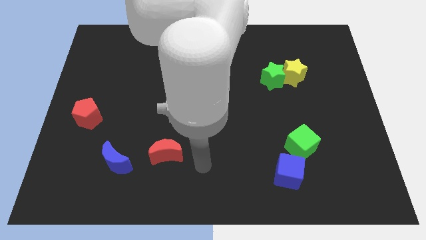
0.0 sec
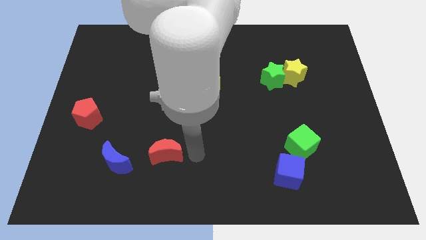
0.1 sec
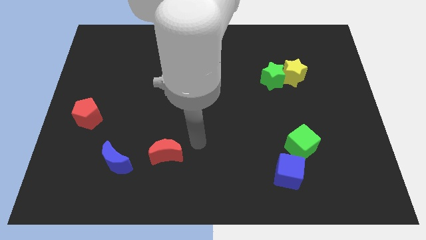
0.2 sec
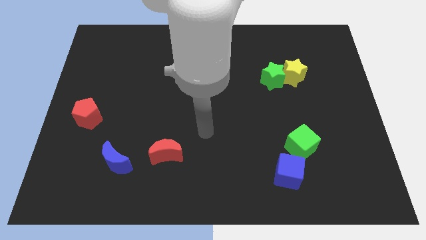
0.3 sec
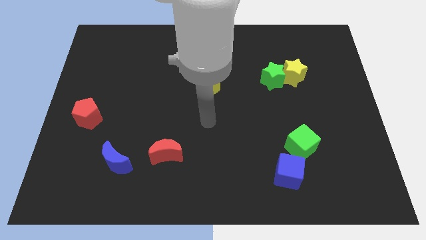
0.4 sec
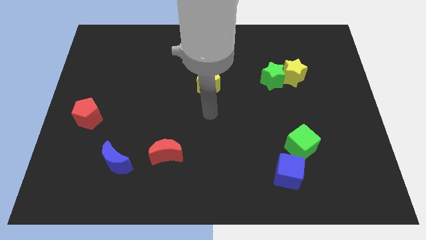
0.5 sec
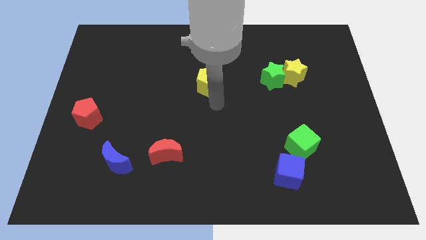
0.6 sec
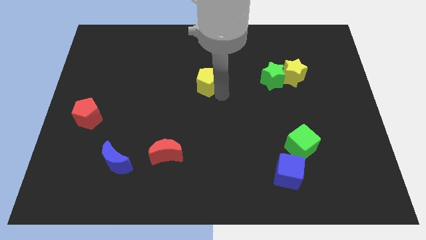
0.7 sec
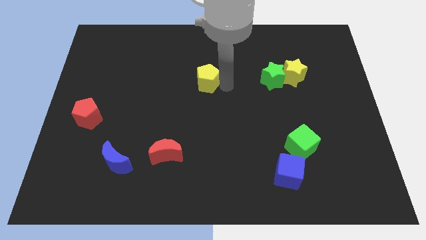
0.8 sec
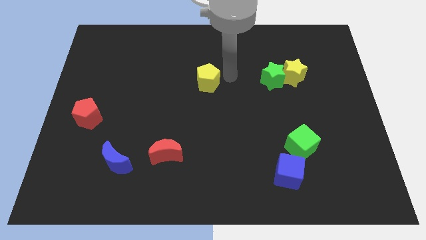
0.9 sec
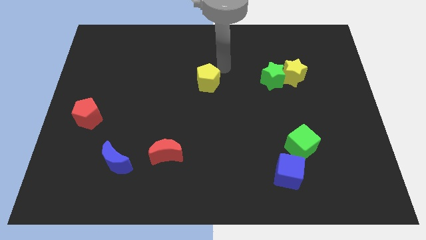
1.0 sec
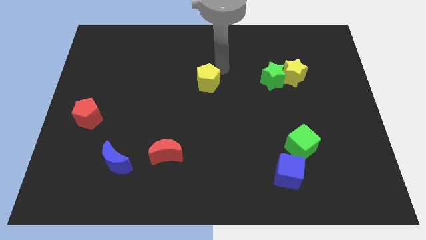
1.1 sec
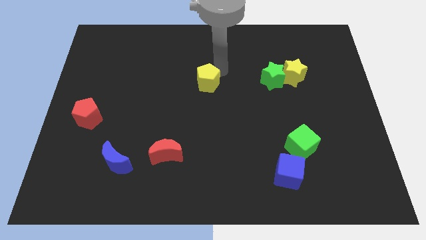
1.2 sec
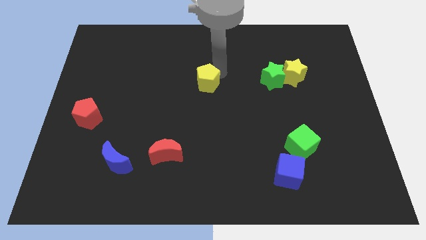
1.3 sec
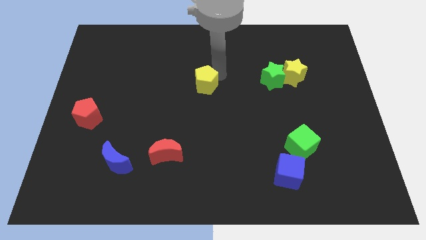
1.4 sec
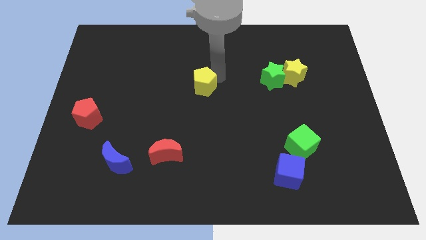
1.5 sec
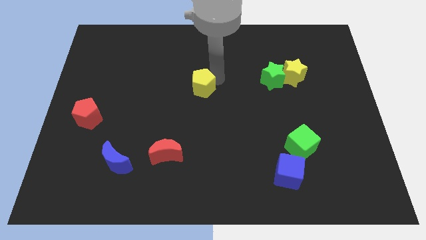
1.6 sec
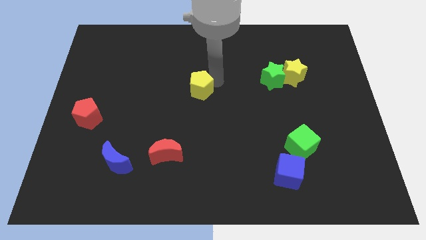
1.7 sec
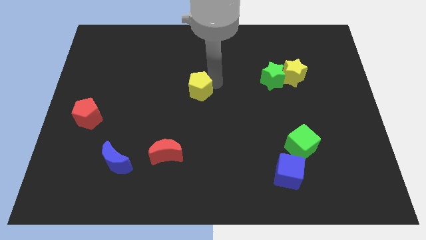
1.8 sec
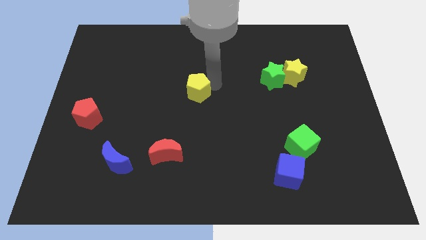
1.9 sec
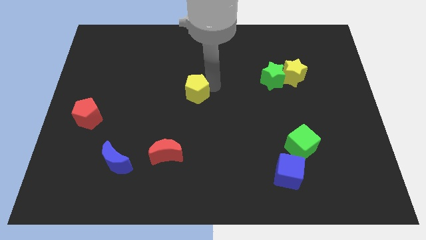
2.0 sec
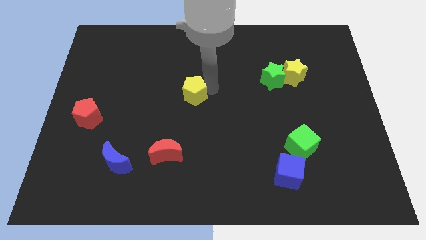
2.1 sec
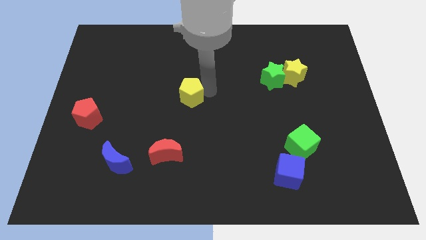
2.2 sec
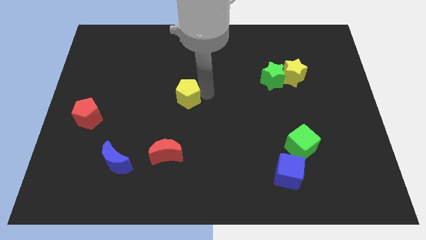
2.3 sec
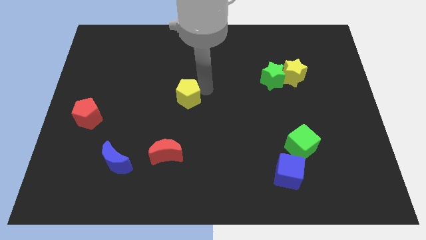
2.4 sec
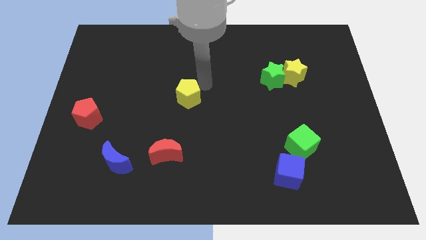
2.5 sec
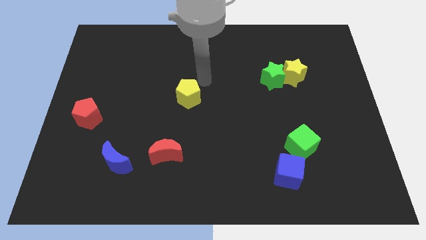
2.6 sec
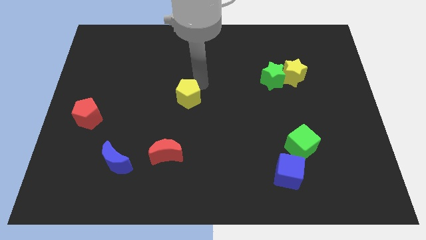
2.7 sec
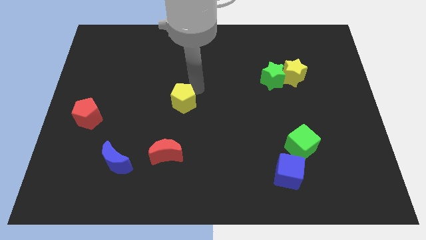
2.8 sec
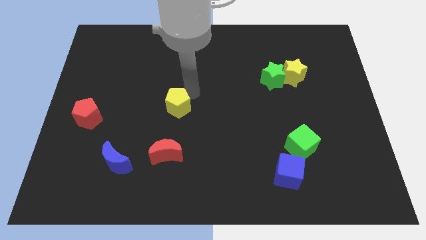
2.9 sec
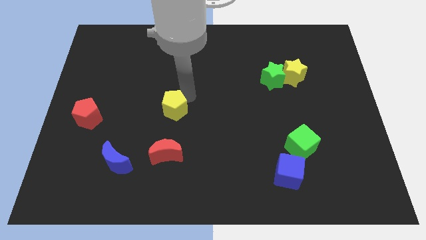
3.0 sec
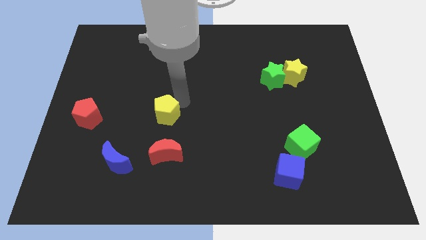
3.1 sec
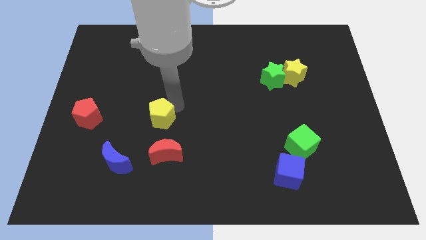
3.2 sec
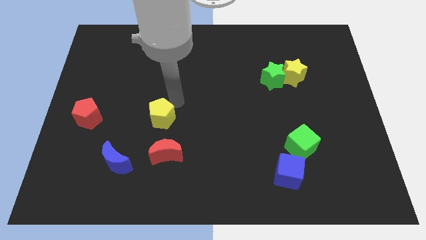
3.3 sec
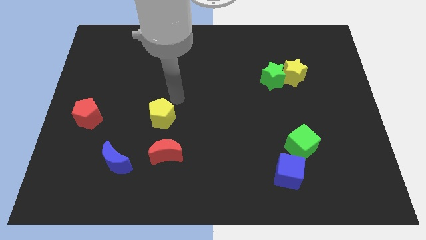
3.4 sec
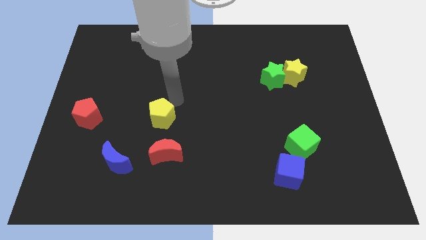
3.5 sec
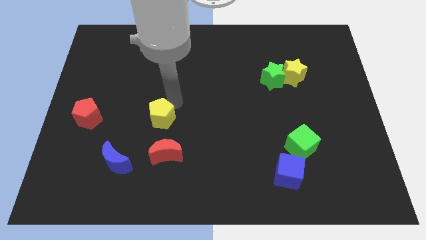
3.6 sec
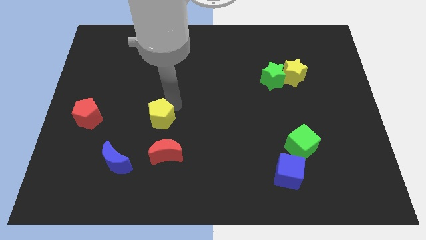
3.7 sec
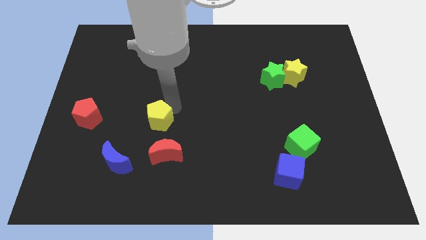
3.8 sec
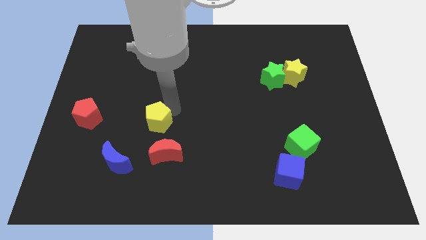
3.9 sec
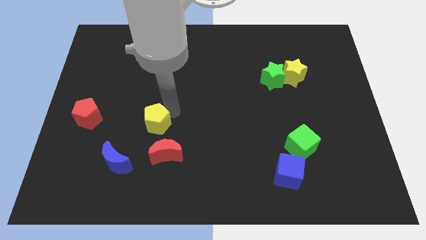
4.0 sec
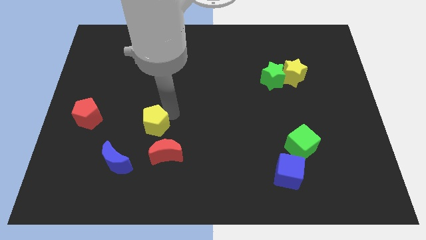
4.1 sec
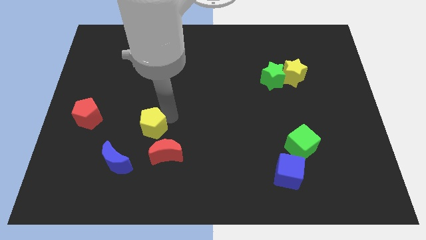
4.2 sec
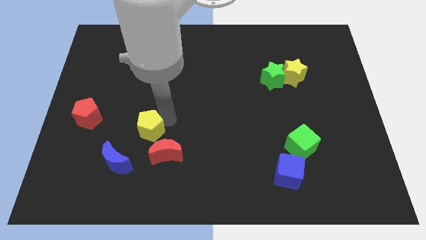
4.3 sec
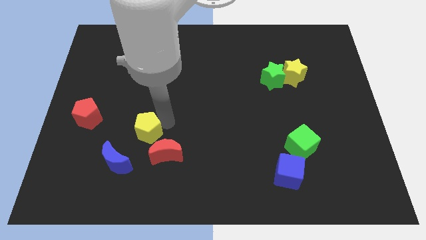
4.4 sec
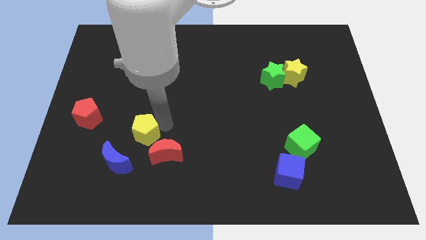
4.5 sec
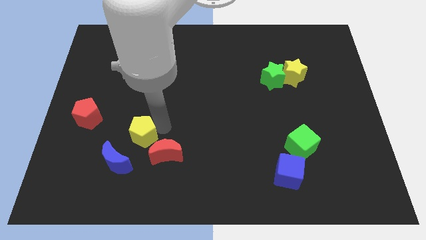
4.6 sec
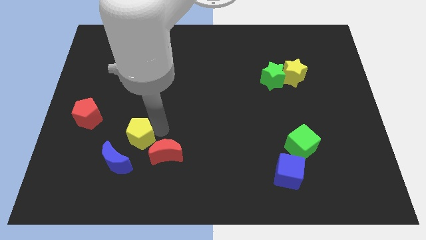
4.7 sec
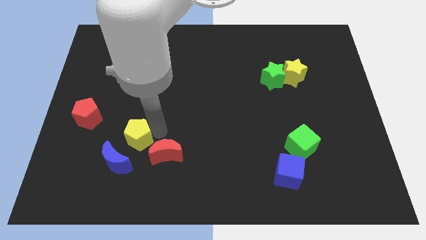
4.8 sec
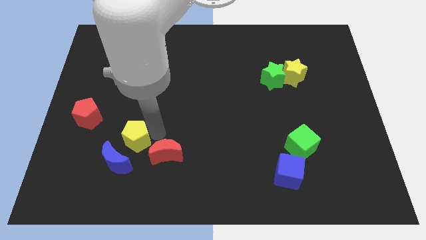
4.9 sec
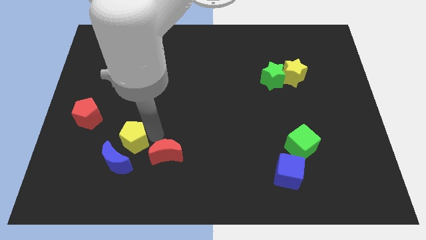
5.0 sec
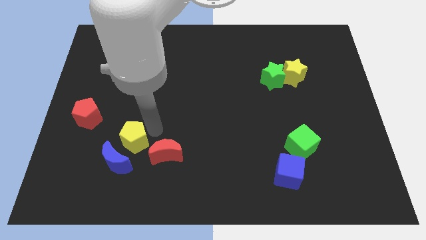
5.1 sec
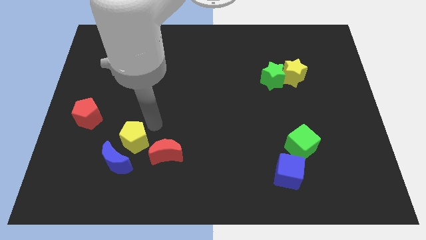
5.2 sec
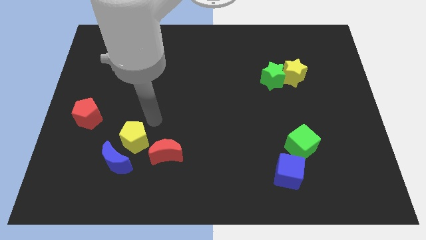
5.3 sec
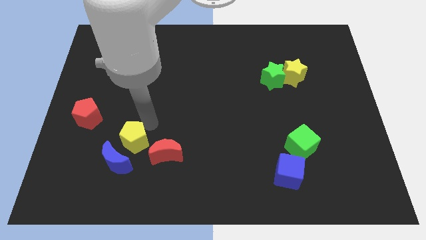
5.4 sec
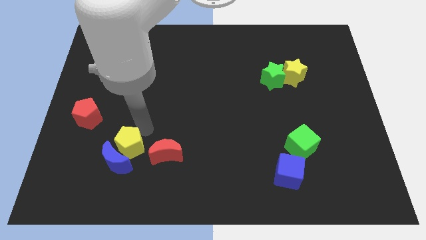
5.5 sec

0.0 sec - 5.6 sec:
push the yellow pentagon to the blue moon

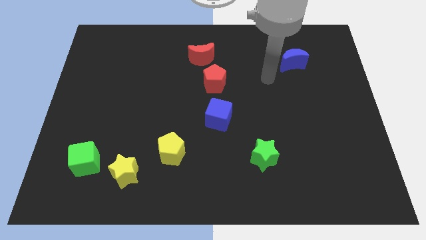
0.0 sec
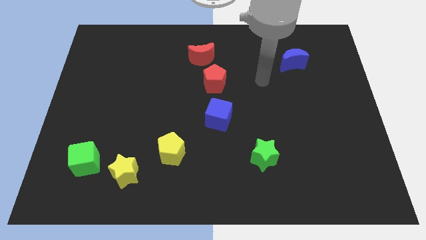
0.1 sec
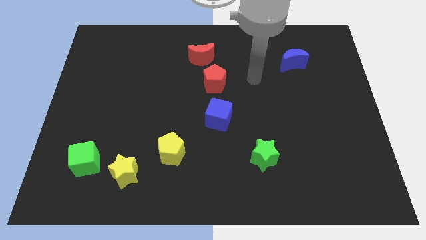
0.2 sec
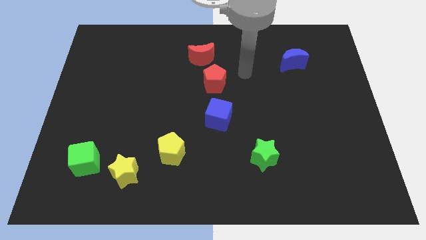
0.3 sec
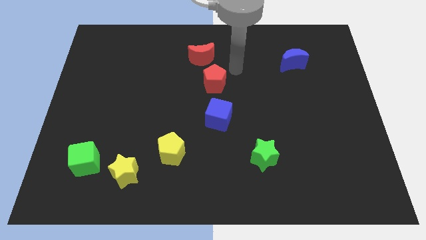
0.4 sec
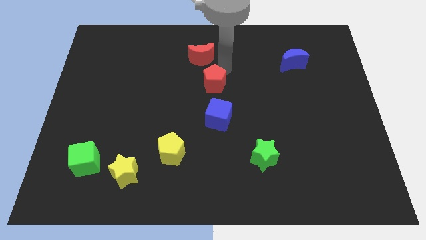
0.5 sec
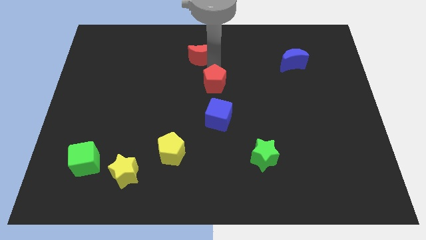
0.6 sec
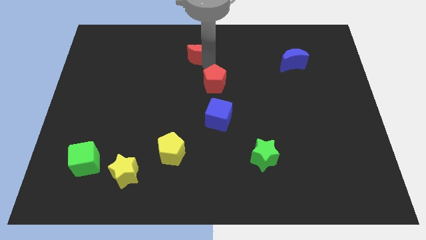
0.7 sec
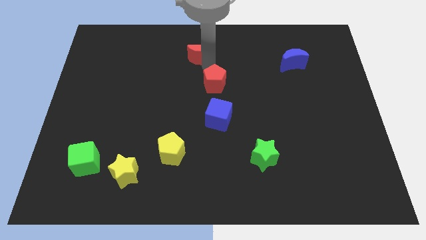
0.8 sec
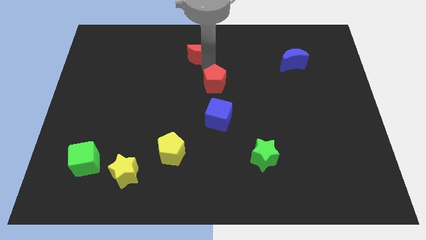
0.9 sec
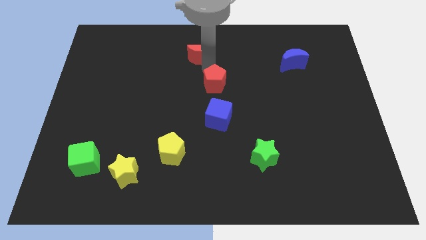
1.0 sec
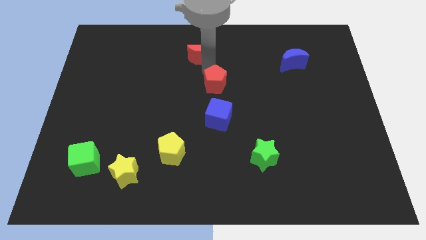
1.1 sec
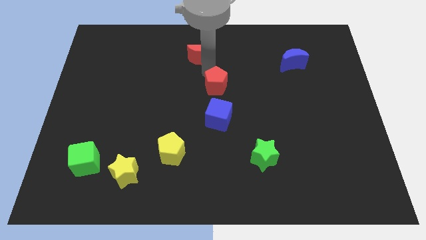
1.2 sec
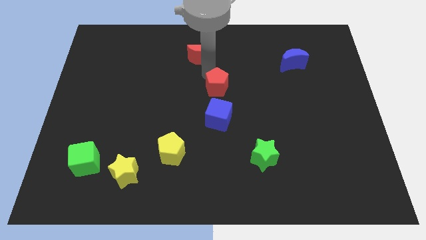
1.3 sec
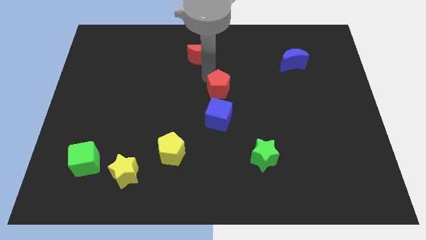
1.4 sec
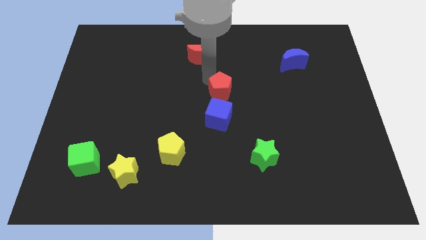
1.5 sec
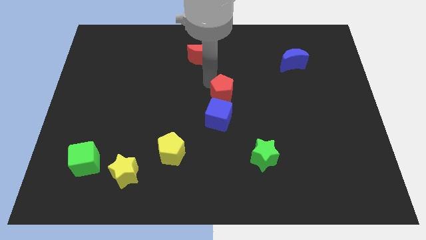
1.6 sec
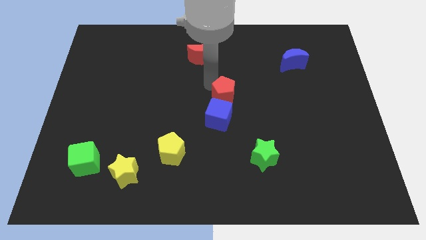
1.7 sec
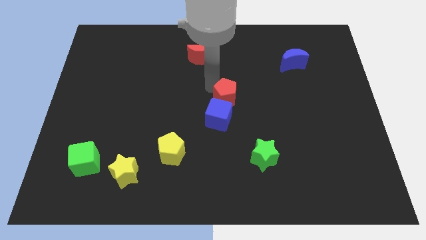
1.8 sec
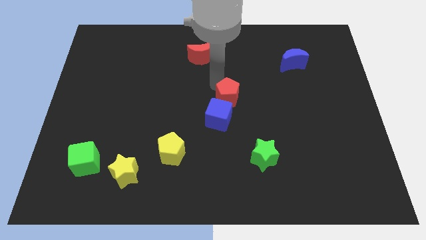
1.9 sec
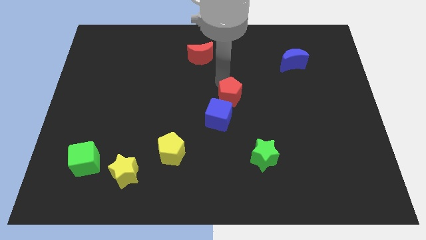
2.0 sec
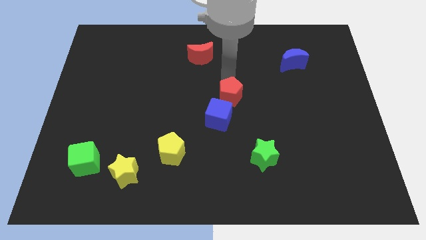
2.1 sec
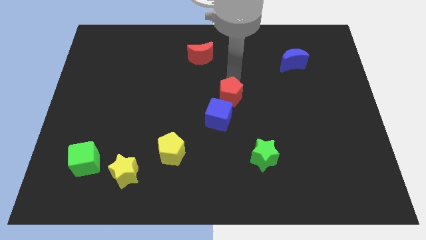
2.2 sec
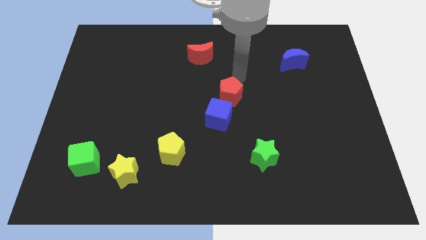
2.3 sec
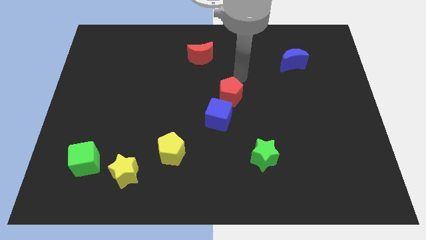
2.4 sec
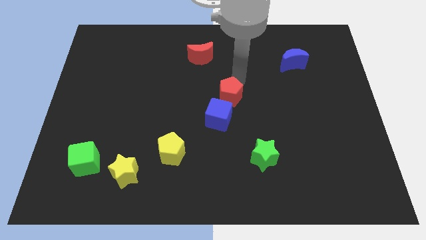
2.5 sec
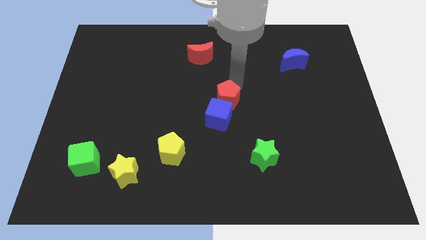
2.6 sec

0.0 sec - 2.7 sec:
put the red pentagon close to the blue cube
